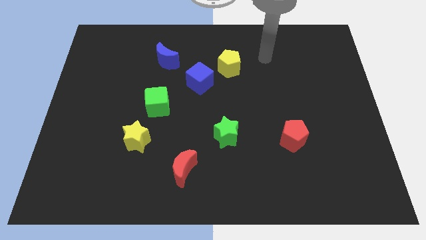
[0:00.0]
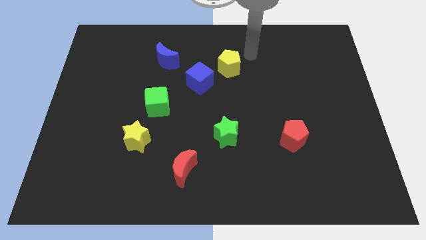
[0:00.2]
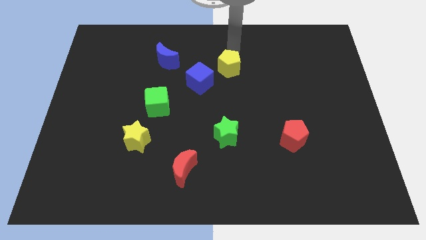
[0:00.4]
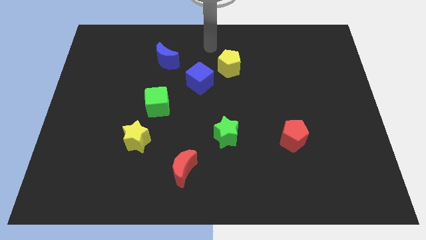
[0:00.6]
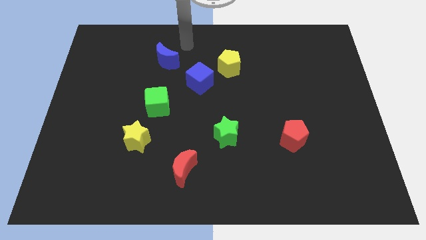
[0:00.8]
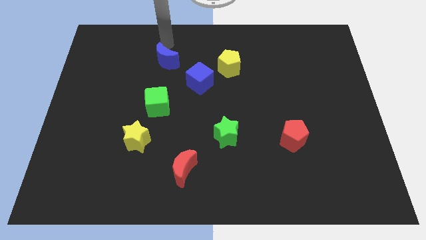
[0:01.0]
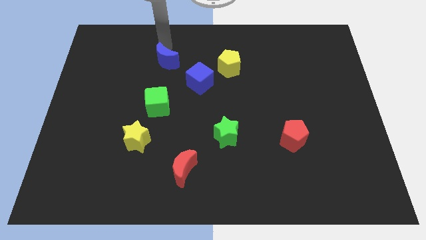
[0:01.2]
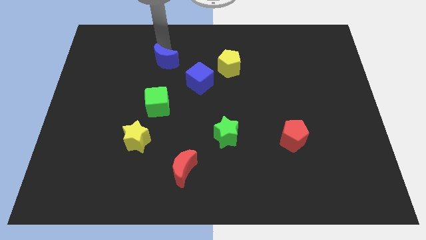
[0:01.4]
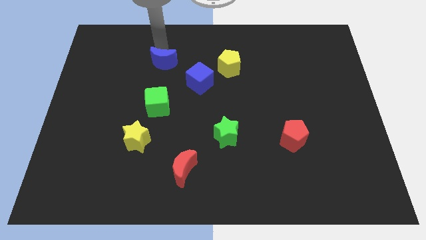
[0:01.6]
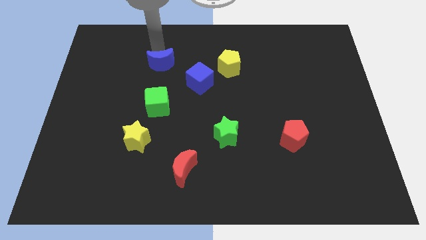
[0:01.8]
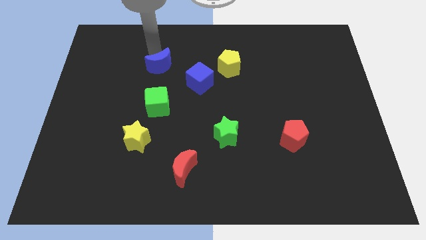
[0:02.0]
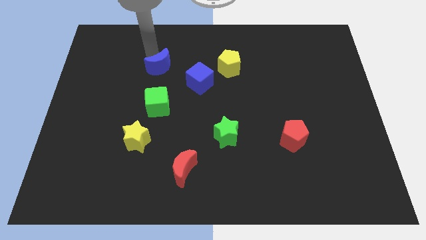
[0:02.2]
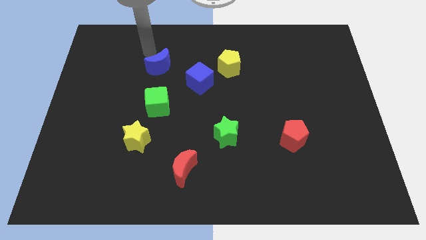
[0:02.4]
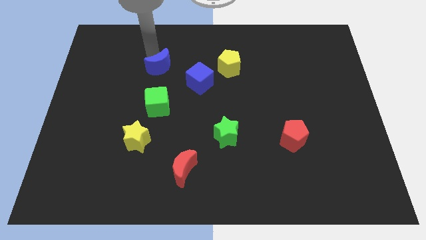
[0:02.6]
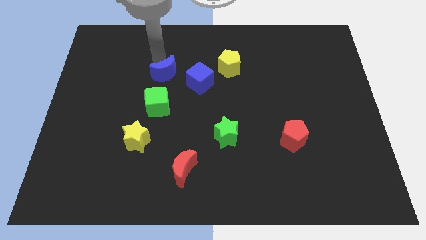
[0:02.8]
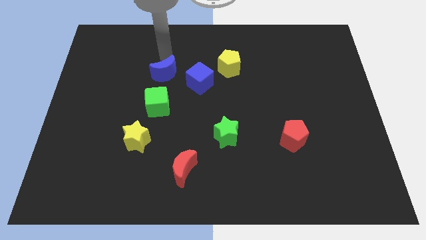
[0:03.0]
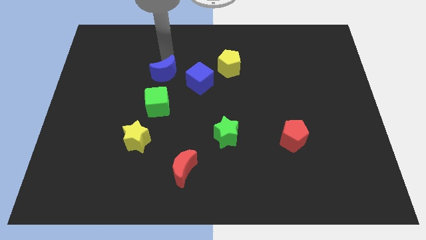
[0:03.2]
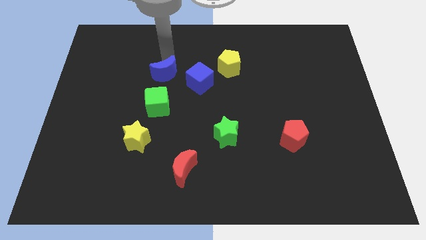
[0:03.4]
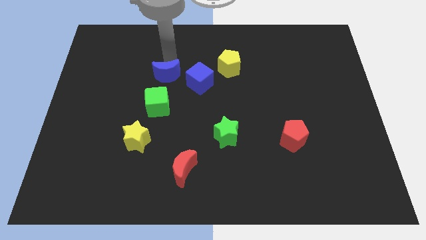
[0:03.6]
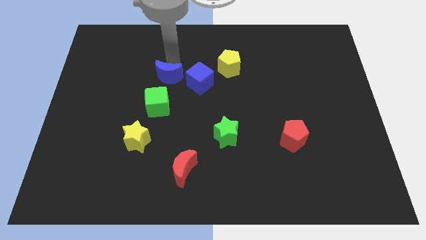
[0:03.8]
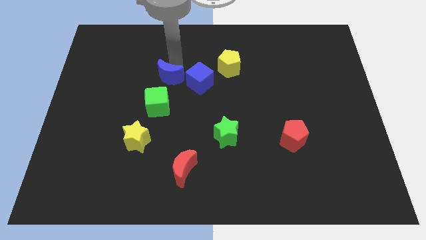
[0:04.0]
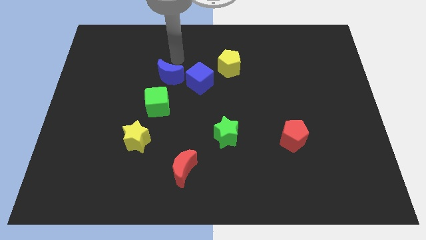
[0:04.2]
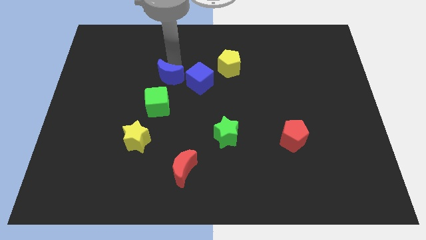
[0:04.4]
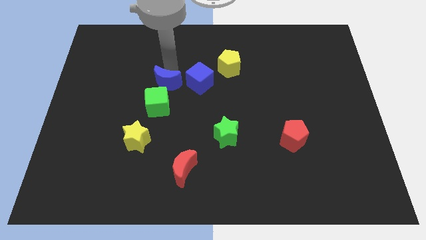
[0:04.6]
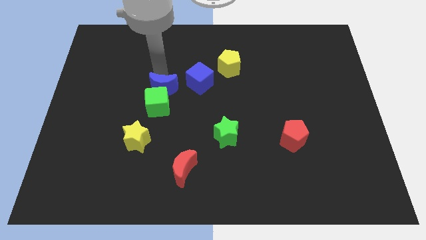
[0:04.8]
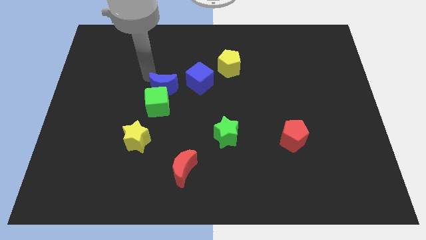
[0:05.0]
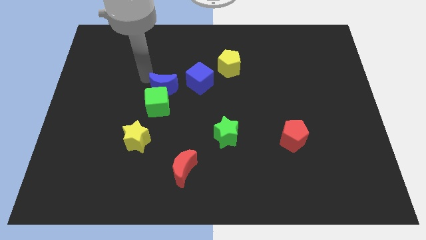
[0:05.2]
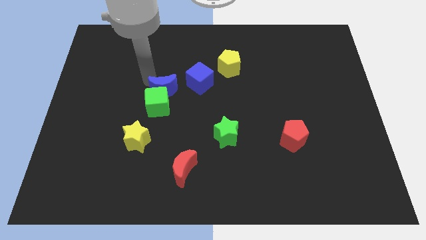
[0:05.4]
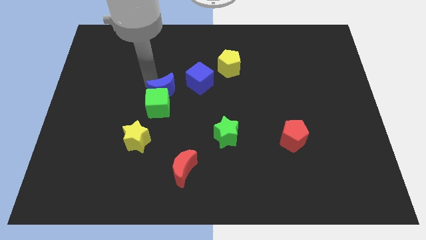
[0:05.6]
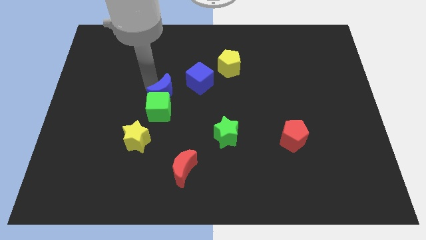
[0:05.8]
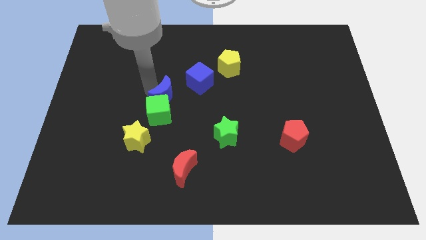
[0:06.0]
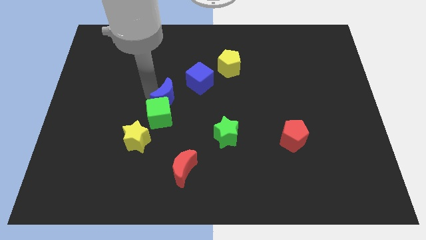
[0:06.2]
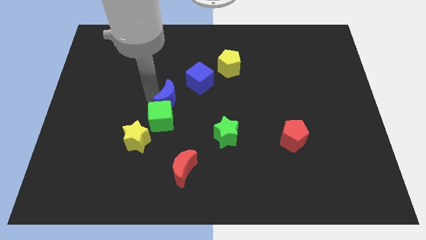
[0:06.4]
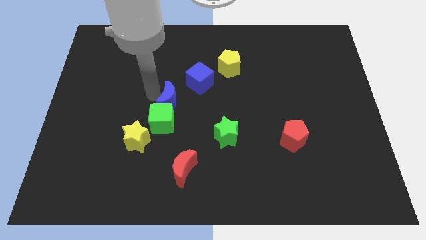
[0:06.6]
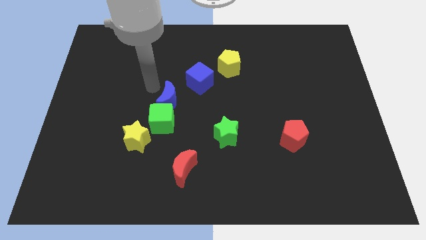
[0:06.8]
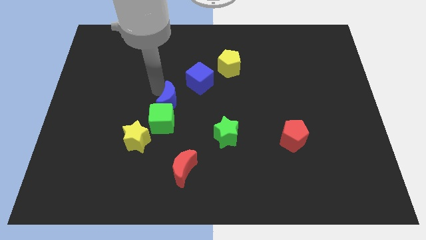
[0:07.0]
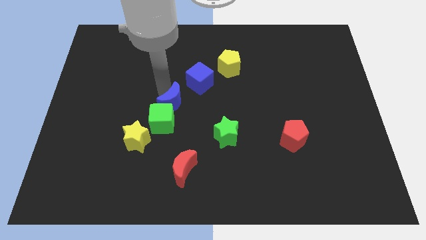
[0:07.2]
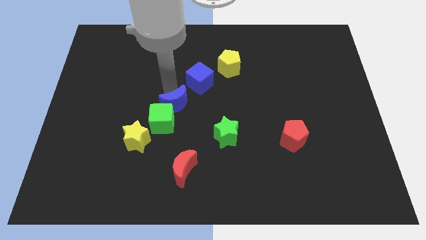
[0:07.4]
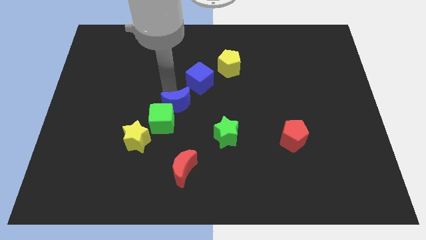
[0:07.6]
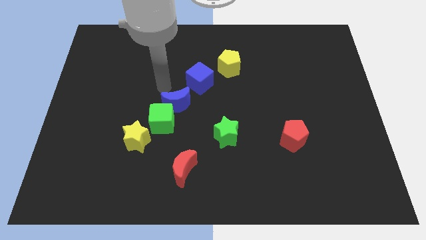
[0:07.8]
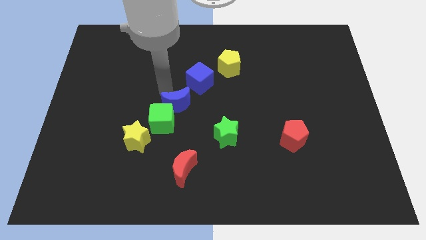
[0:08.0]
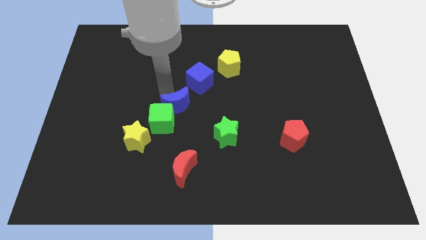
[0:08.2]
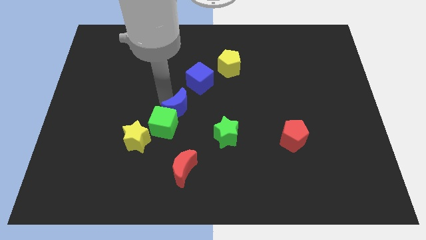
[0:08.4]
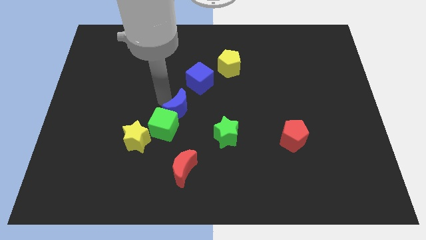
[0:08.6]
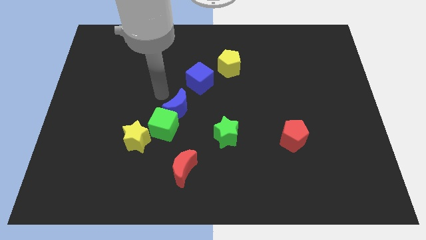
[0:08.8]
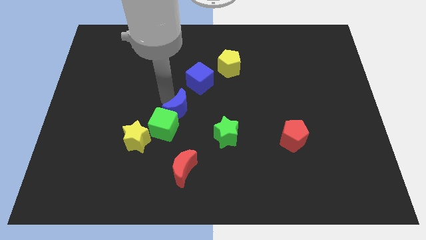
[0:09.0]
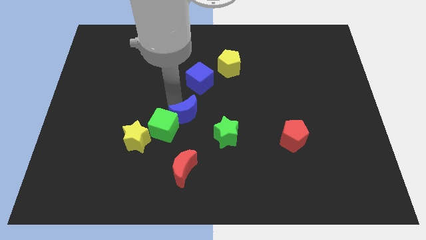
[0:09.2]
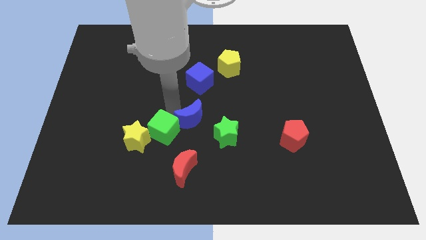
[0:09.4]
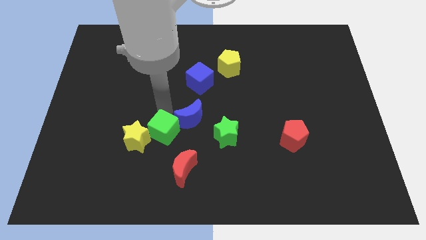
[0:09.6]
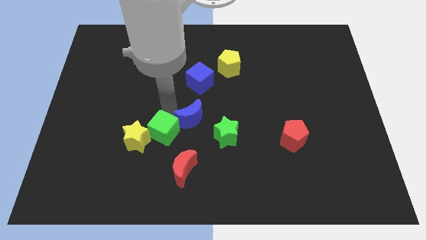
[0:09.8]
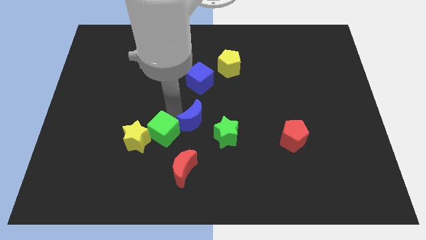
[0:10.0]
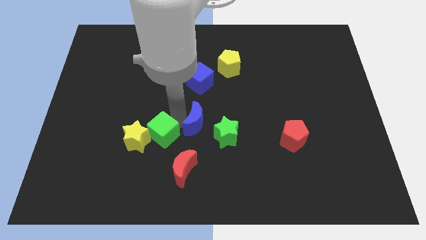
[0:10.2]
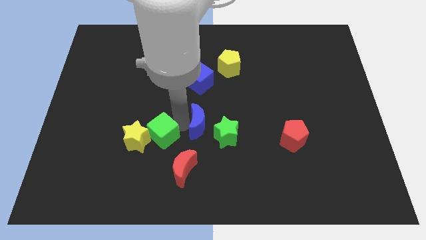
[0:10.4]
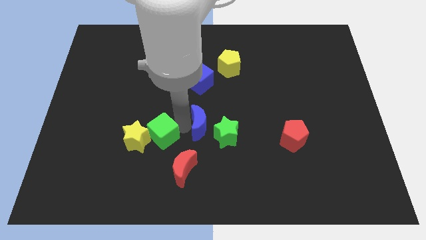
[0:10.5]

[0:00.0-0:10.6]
push the blue moon close to the green star

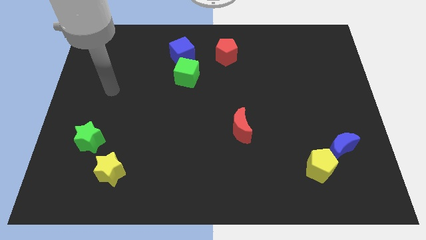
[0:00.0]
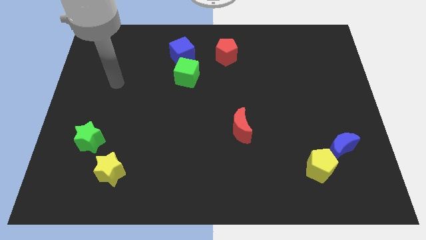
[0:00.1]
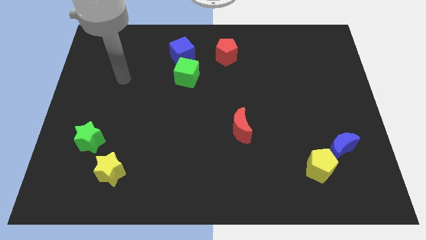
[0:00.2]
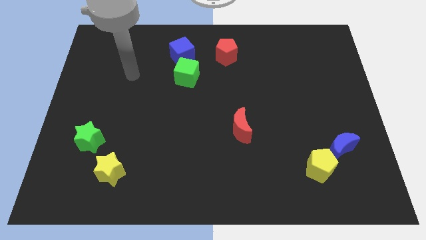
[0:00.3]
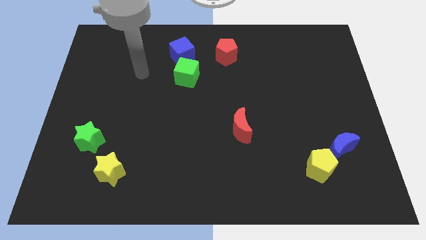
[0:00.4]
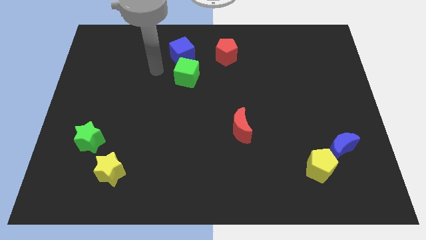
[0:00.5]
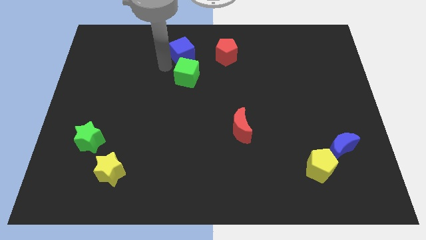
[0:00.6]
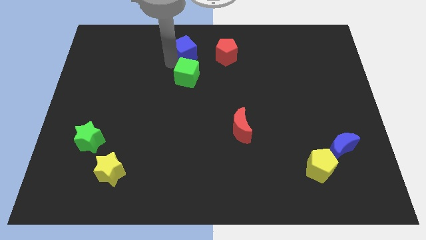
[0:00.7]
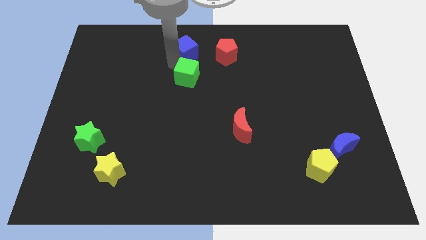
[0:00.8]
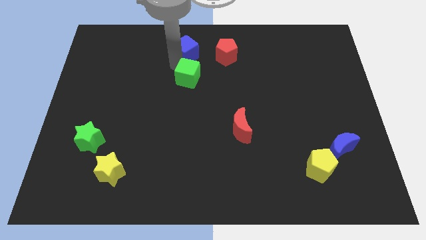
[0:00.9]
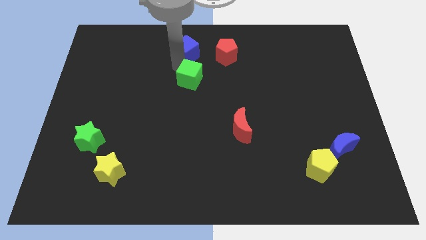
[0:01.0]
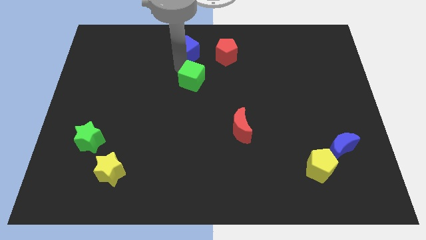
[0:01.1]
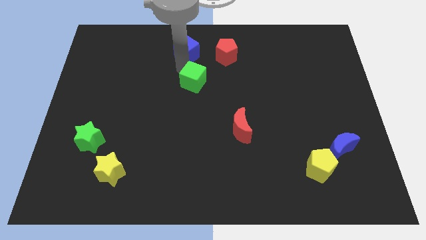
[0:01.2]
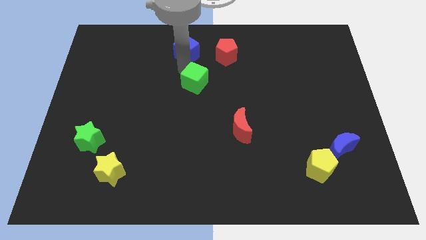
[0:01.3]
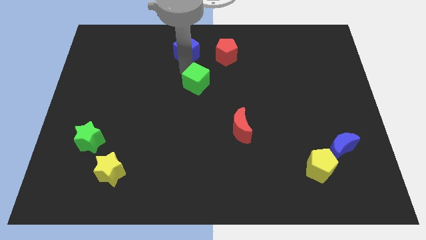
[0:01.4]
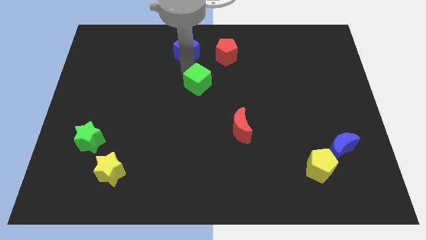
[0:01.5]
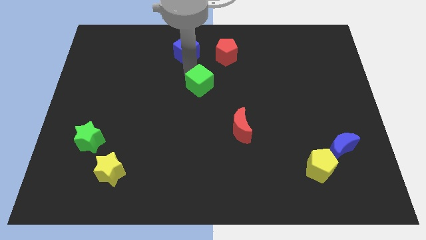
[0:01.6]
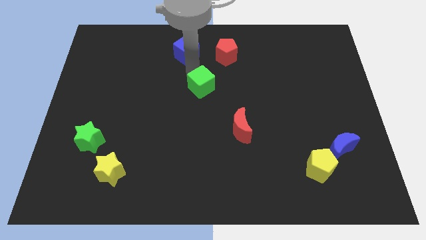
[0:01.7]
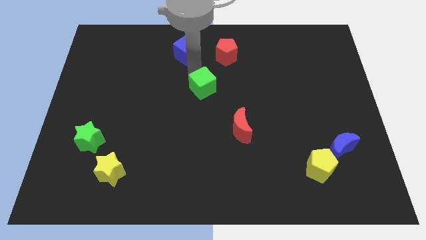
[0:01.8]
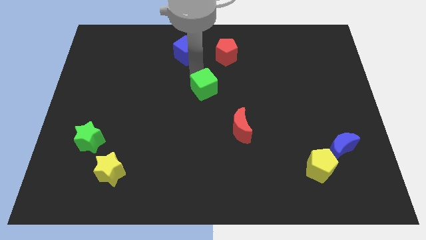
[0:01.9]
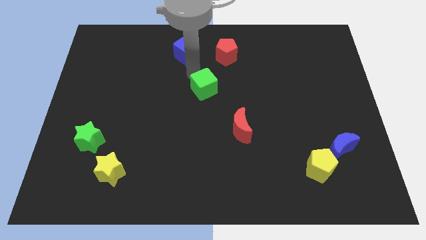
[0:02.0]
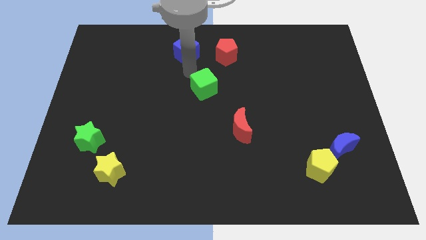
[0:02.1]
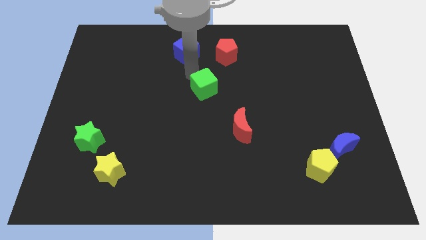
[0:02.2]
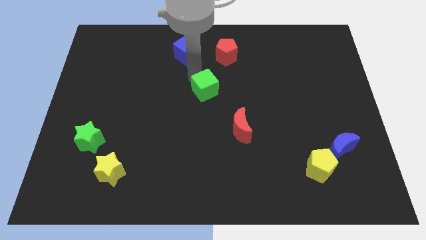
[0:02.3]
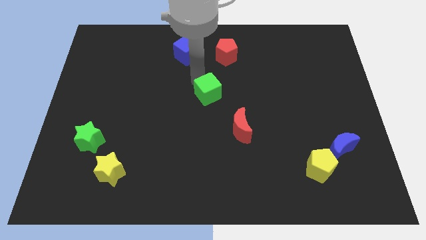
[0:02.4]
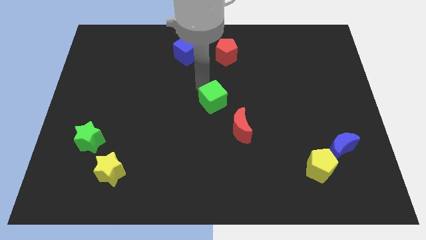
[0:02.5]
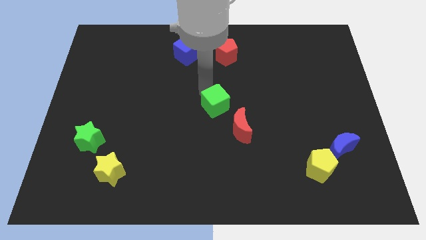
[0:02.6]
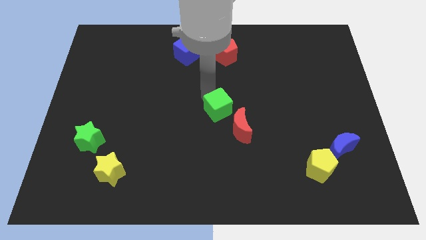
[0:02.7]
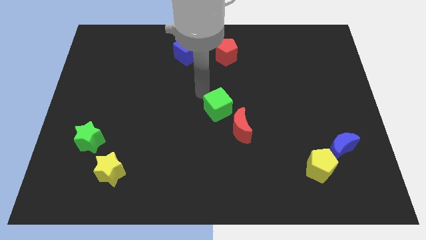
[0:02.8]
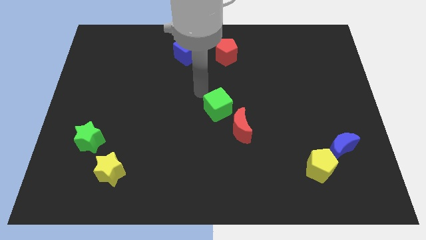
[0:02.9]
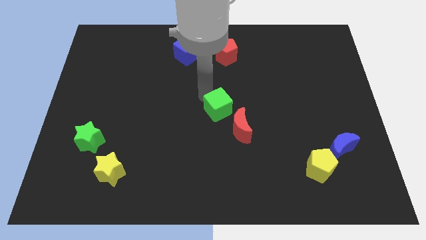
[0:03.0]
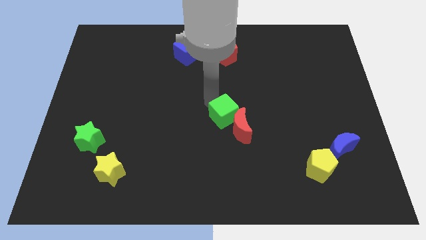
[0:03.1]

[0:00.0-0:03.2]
push the green cube to the red moon
